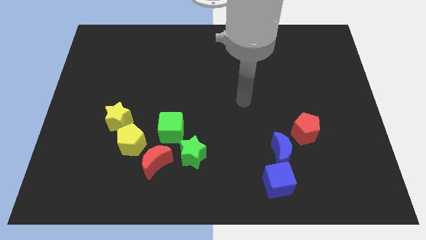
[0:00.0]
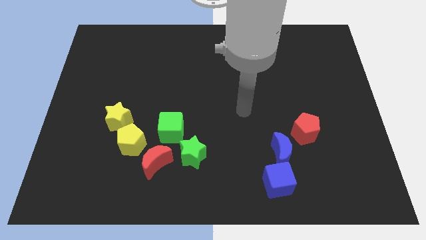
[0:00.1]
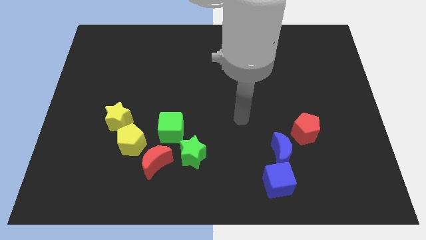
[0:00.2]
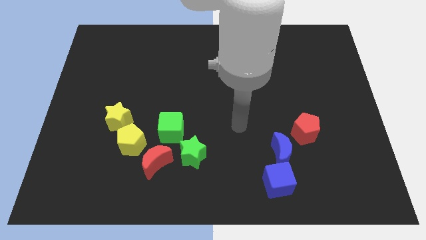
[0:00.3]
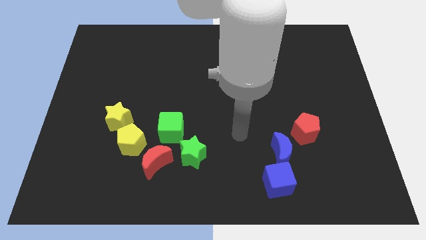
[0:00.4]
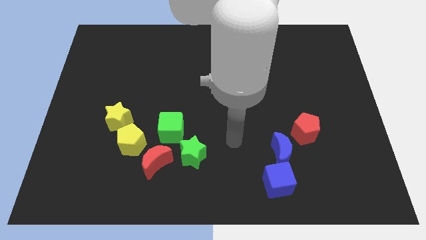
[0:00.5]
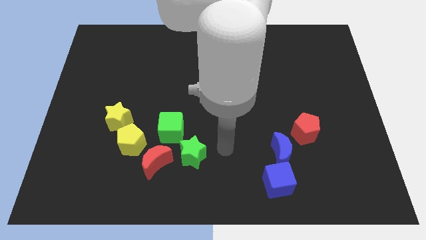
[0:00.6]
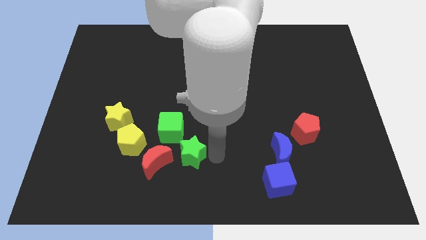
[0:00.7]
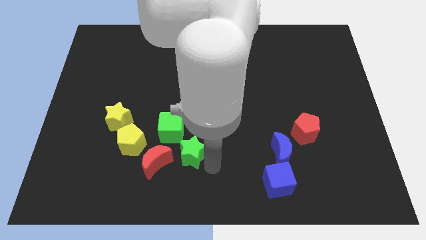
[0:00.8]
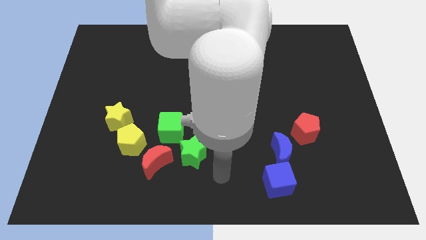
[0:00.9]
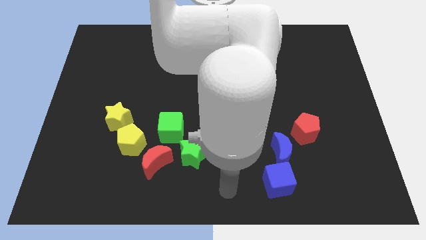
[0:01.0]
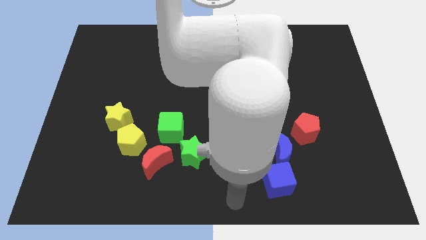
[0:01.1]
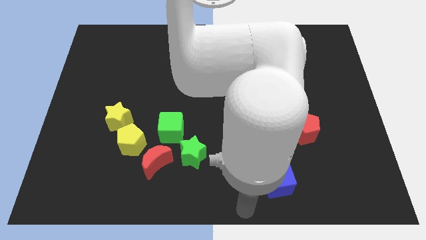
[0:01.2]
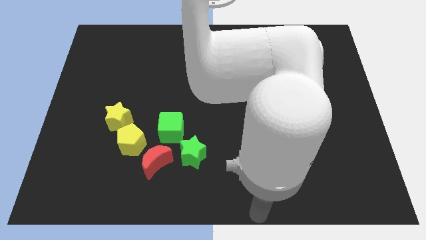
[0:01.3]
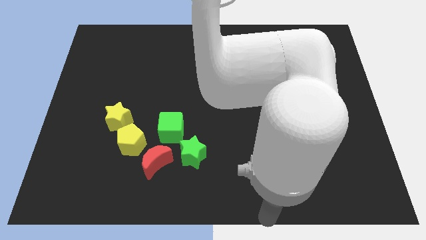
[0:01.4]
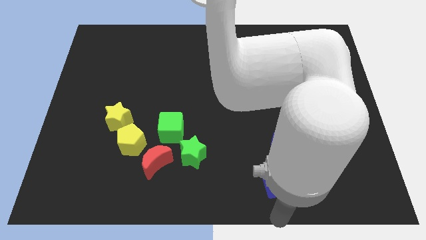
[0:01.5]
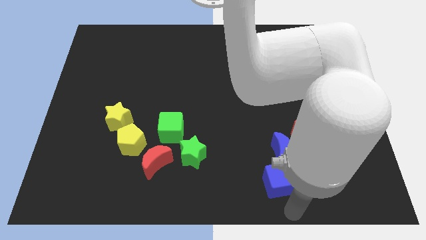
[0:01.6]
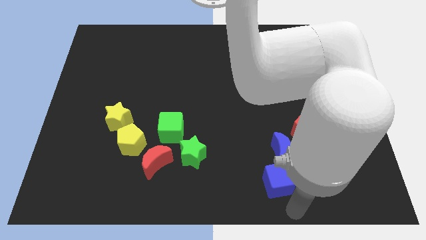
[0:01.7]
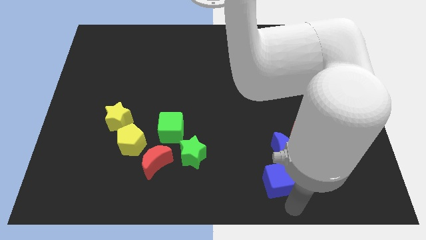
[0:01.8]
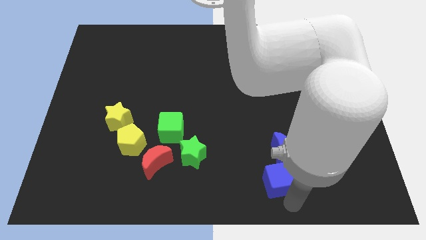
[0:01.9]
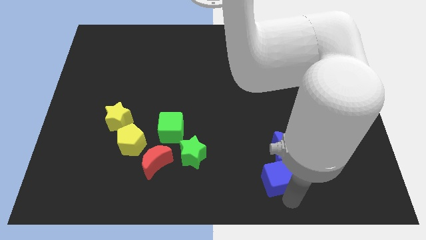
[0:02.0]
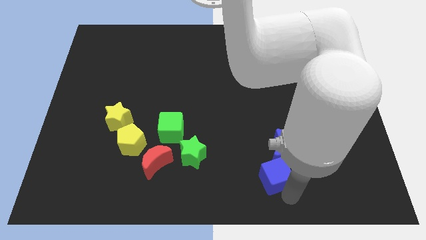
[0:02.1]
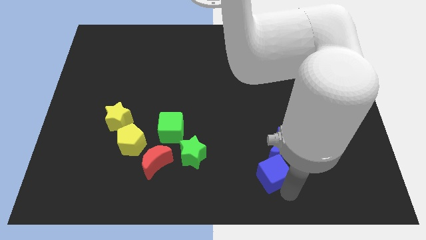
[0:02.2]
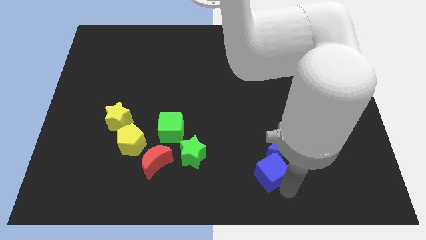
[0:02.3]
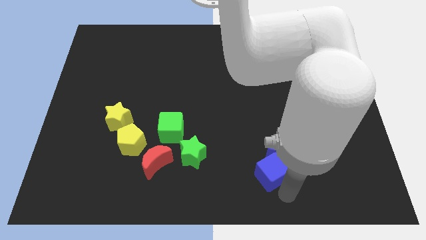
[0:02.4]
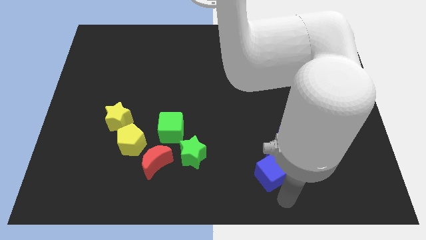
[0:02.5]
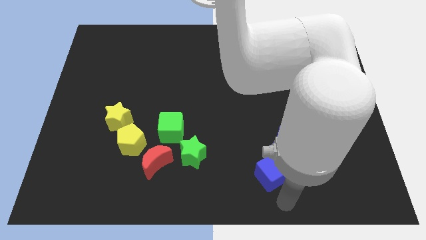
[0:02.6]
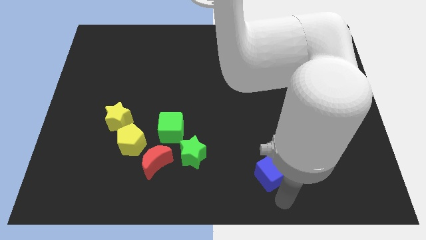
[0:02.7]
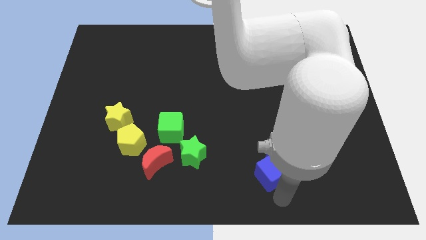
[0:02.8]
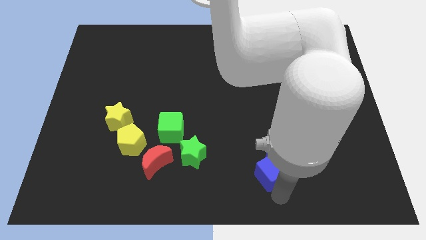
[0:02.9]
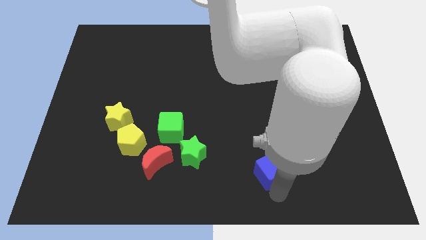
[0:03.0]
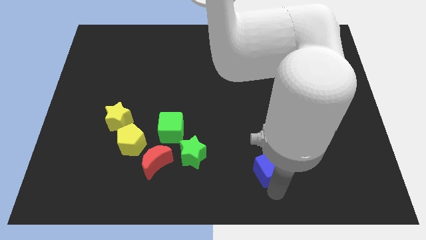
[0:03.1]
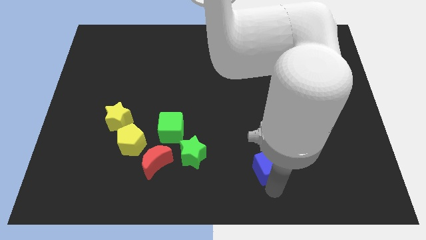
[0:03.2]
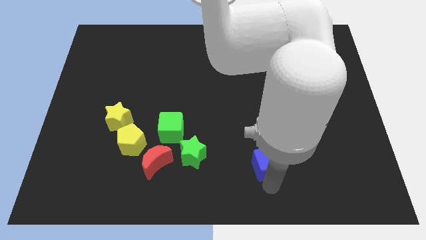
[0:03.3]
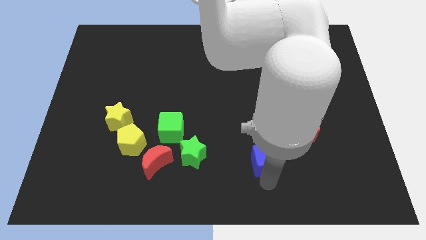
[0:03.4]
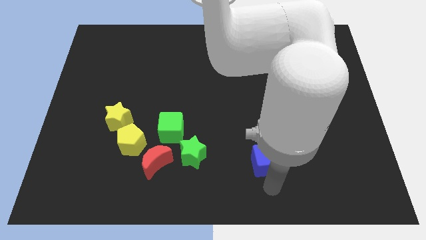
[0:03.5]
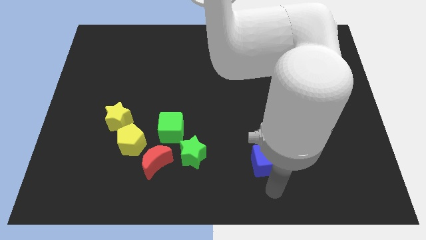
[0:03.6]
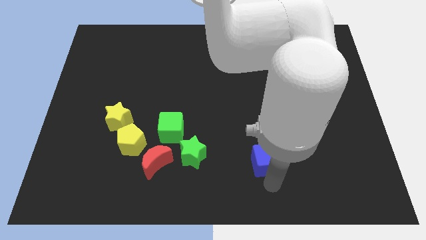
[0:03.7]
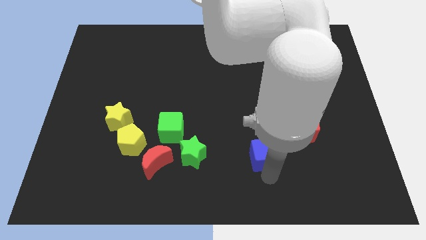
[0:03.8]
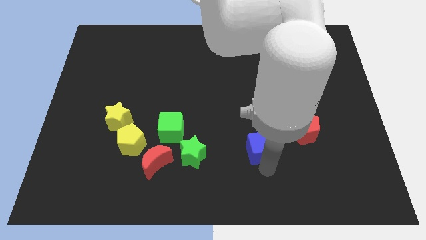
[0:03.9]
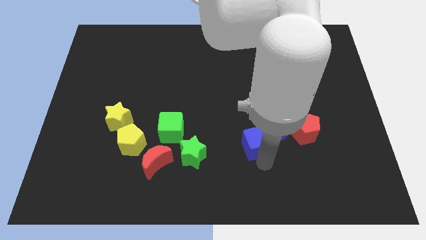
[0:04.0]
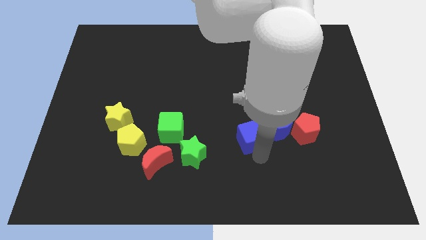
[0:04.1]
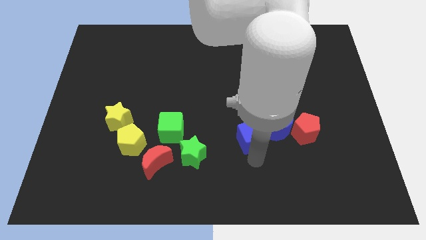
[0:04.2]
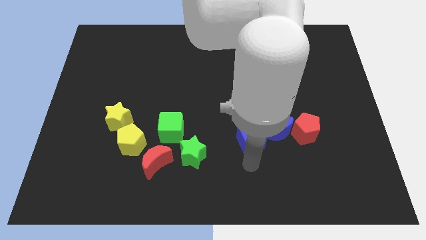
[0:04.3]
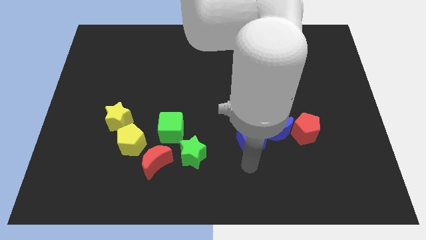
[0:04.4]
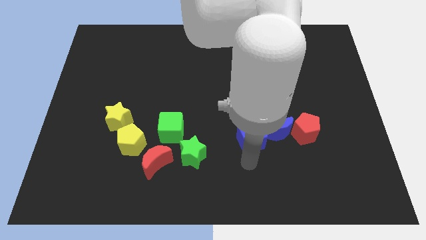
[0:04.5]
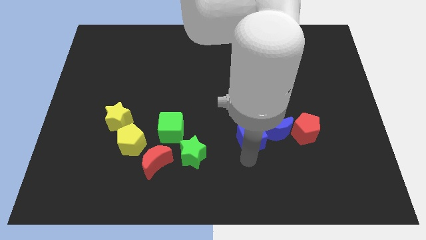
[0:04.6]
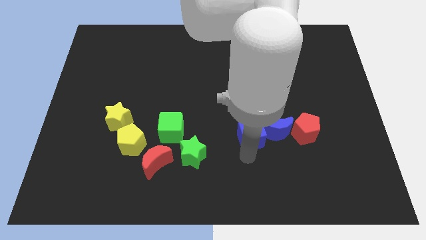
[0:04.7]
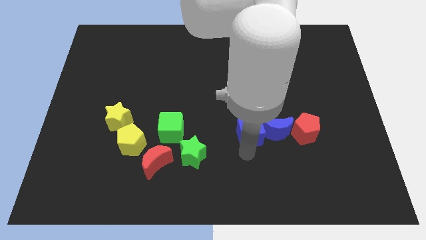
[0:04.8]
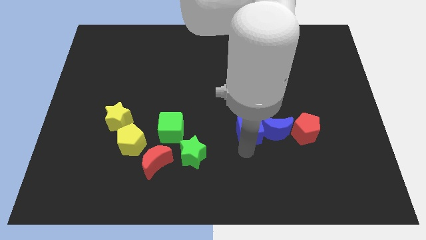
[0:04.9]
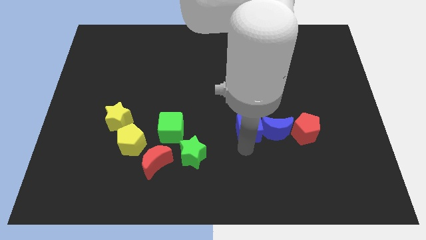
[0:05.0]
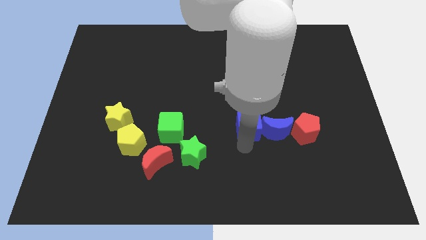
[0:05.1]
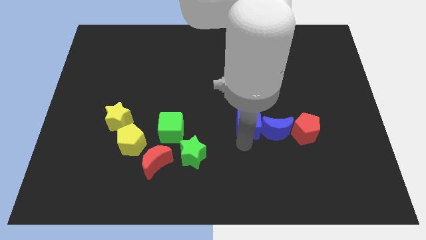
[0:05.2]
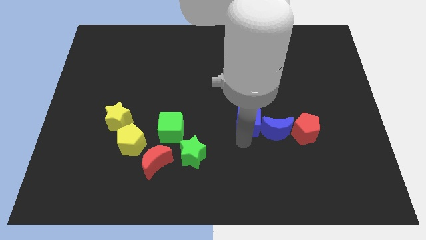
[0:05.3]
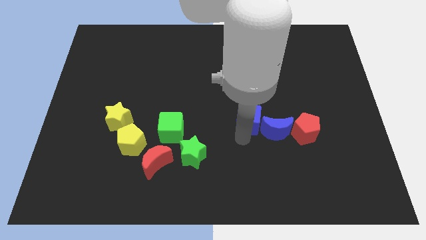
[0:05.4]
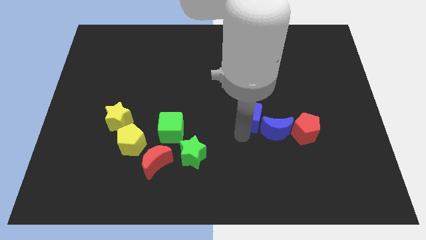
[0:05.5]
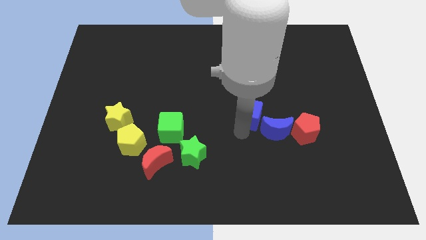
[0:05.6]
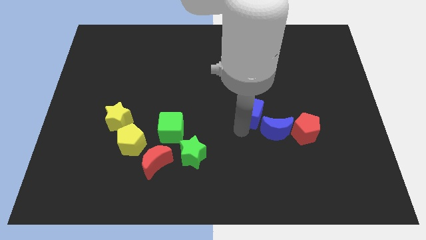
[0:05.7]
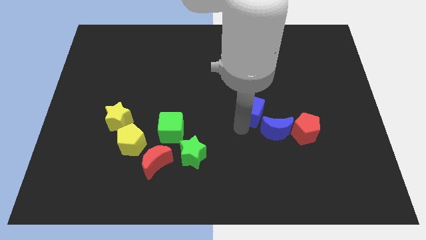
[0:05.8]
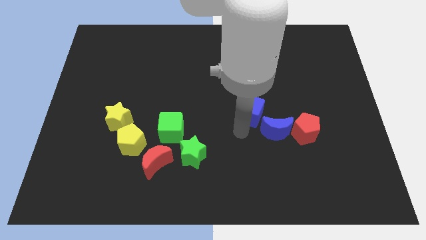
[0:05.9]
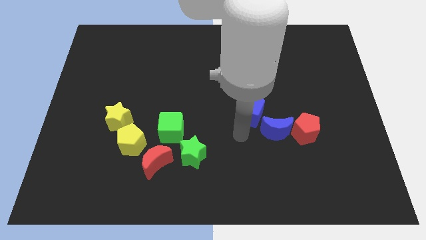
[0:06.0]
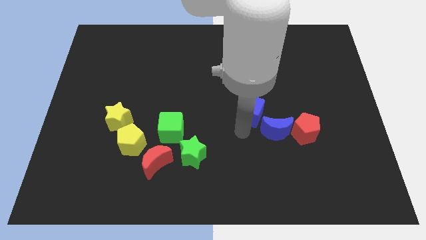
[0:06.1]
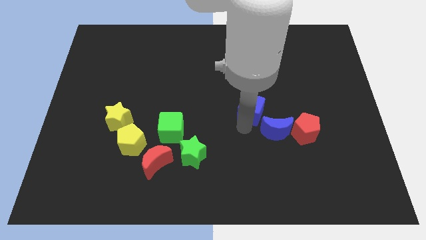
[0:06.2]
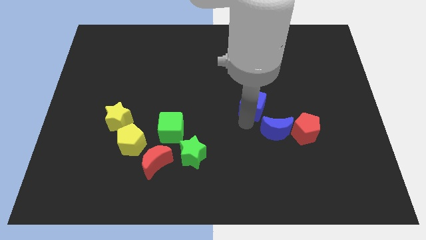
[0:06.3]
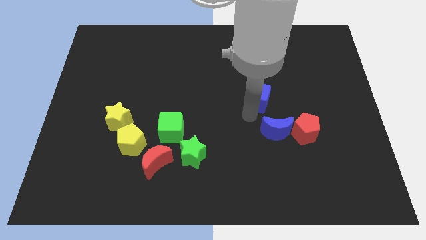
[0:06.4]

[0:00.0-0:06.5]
slide the blue cube up

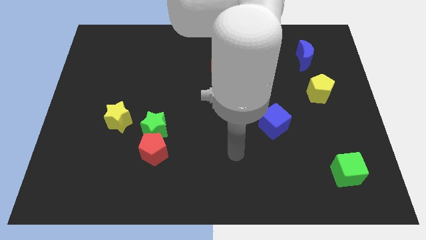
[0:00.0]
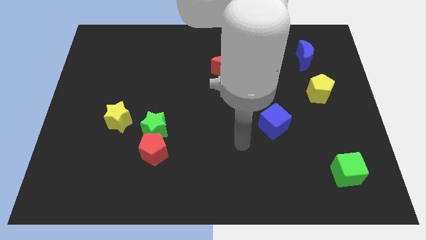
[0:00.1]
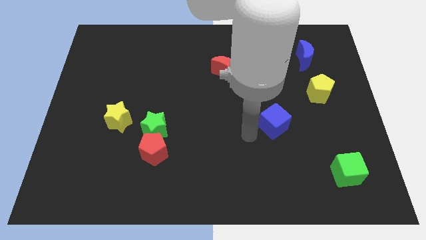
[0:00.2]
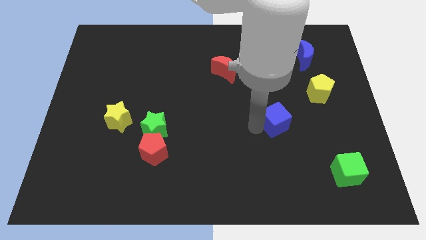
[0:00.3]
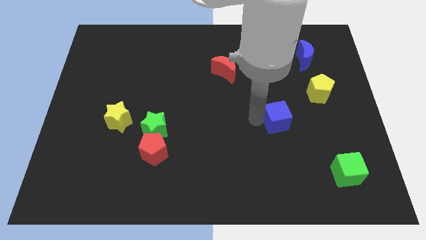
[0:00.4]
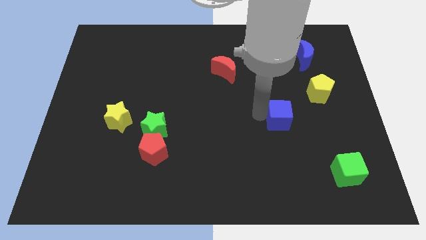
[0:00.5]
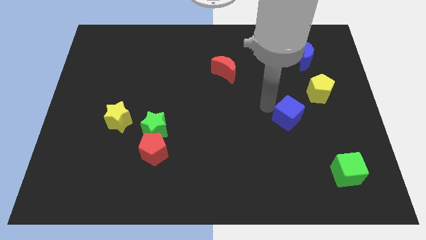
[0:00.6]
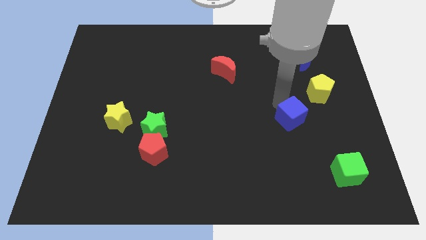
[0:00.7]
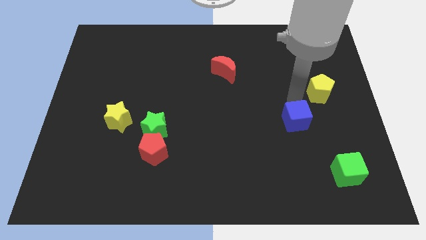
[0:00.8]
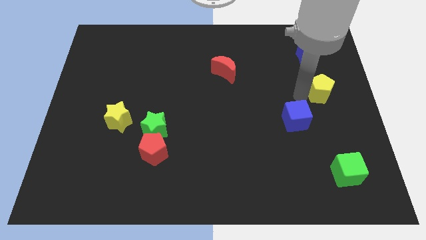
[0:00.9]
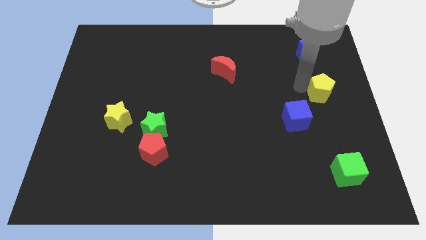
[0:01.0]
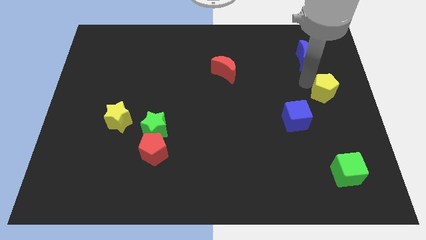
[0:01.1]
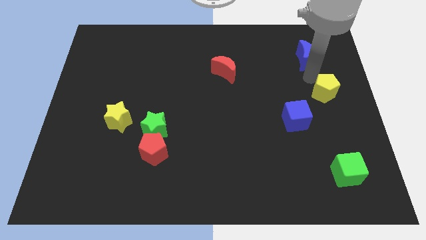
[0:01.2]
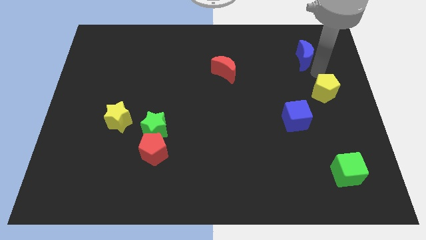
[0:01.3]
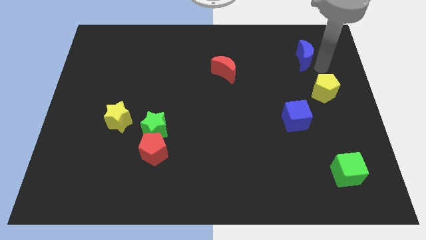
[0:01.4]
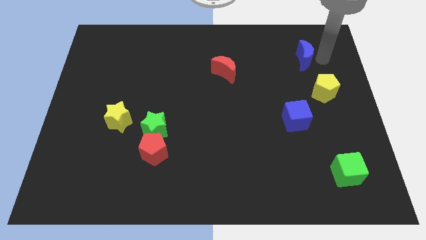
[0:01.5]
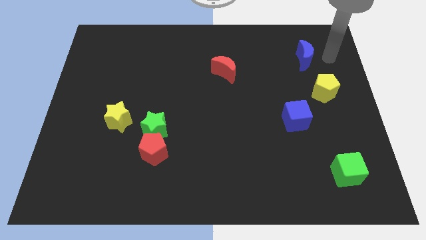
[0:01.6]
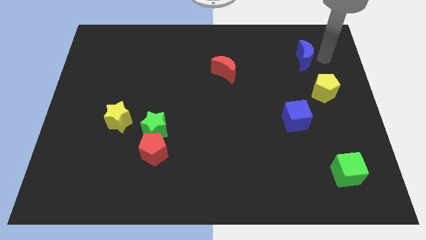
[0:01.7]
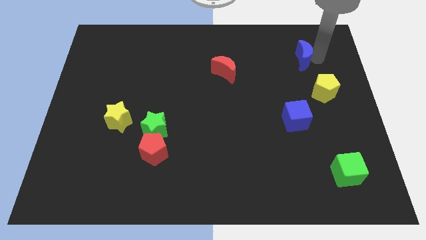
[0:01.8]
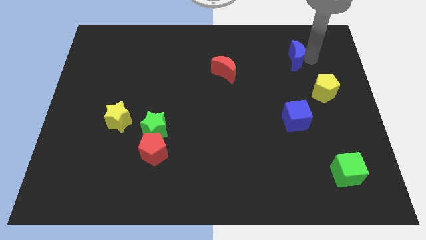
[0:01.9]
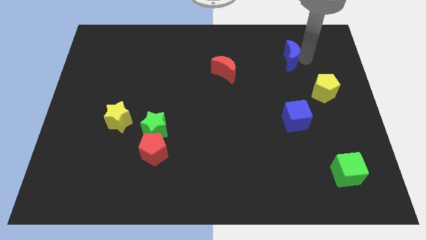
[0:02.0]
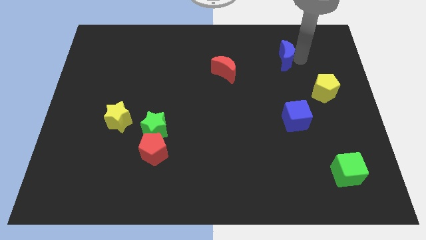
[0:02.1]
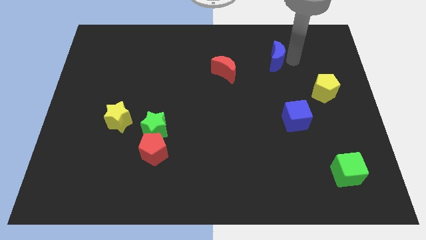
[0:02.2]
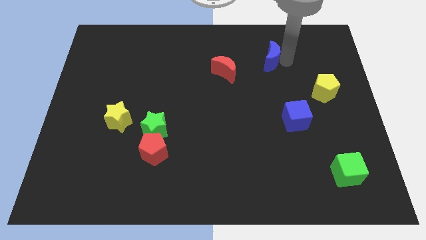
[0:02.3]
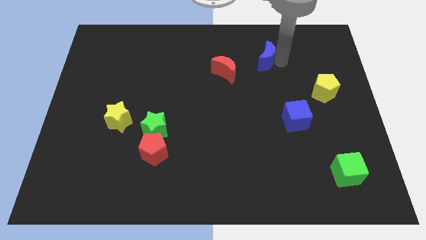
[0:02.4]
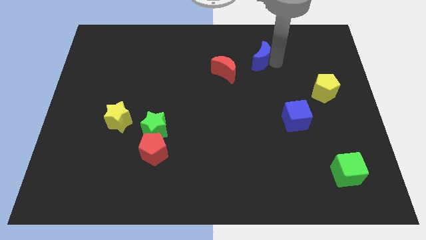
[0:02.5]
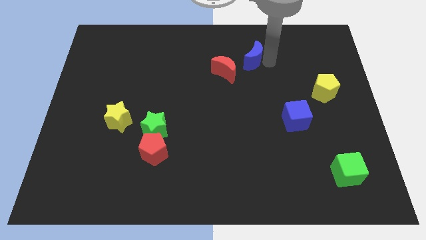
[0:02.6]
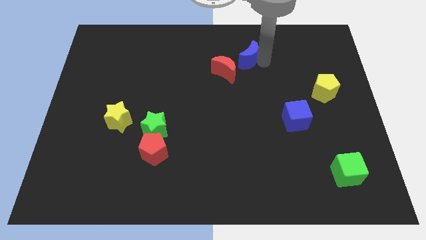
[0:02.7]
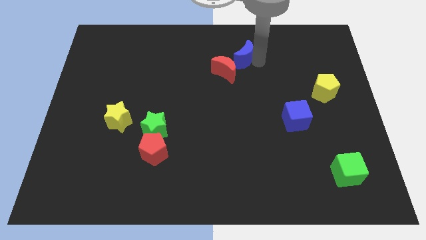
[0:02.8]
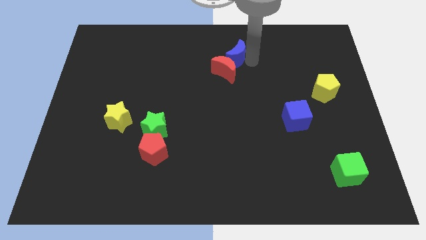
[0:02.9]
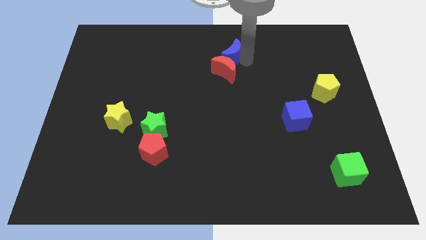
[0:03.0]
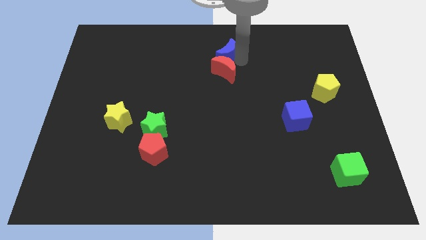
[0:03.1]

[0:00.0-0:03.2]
slide the blue moon to the left
